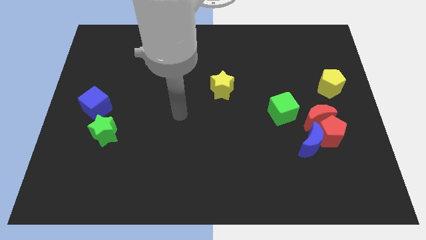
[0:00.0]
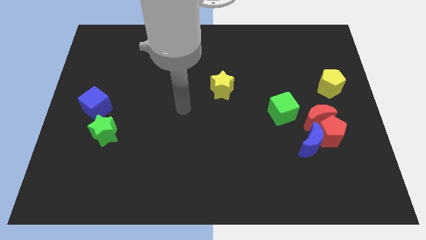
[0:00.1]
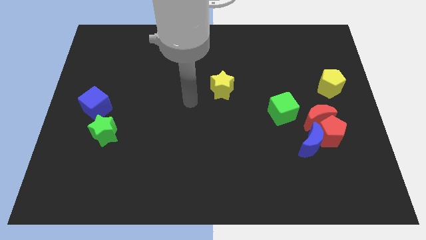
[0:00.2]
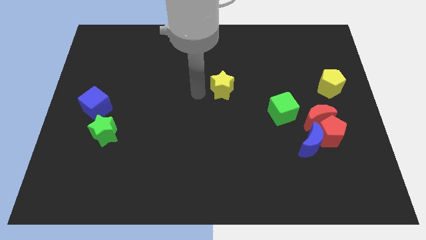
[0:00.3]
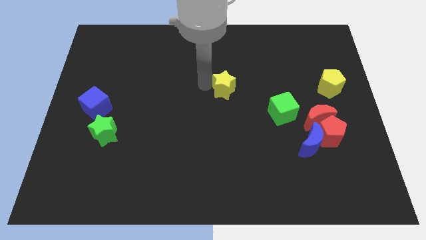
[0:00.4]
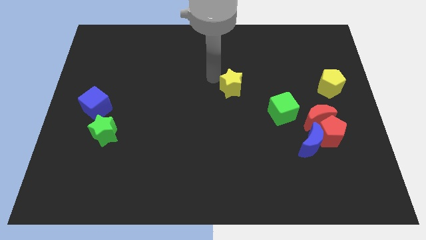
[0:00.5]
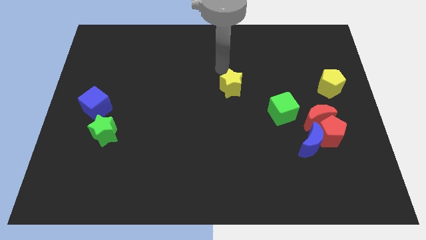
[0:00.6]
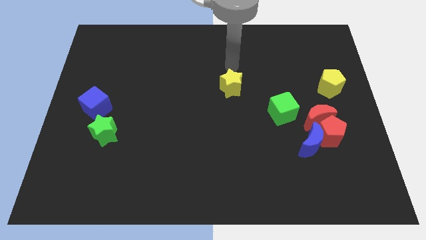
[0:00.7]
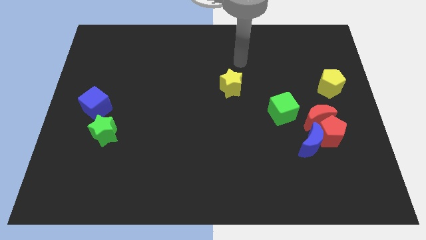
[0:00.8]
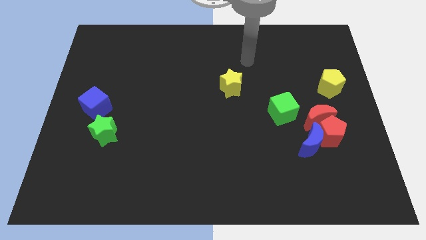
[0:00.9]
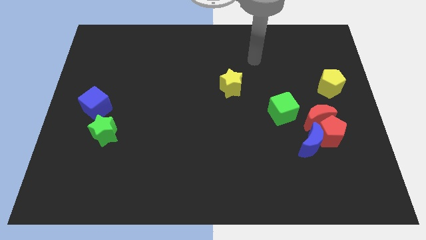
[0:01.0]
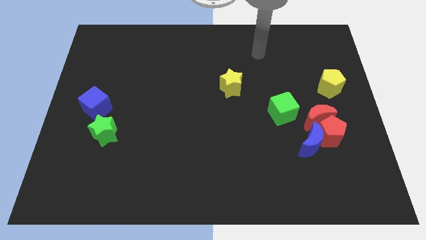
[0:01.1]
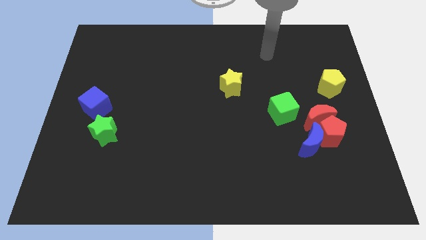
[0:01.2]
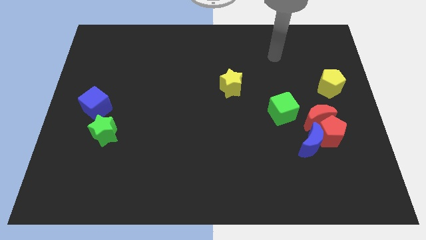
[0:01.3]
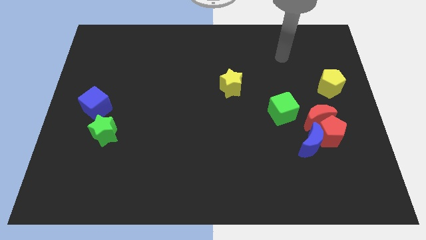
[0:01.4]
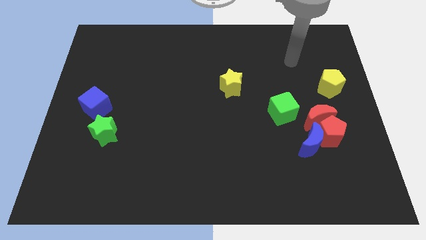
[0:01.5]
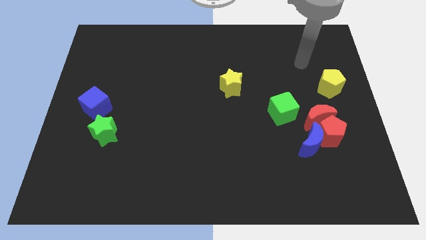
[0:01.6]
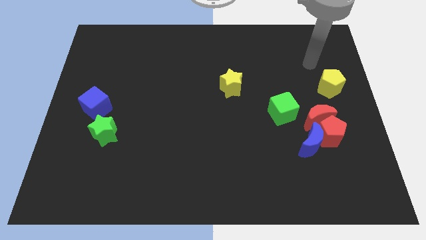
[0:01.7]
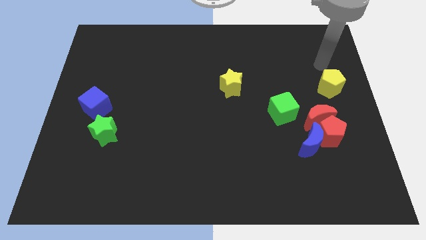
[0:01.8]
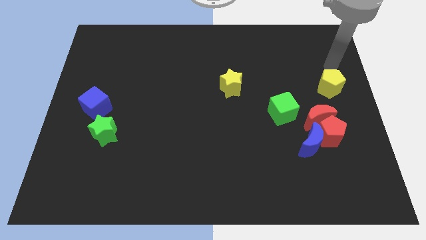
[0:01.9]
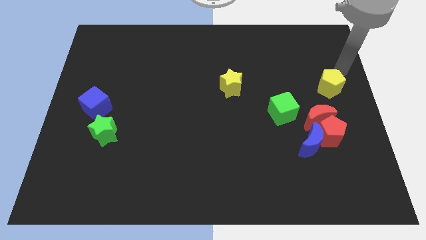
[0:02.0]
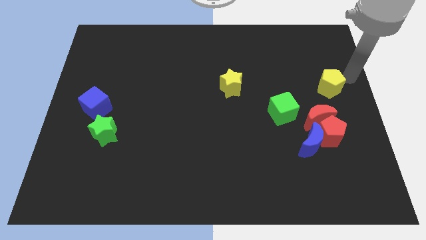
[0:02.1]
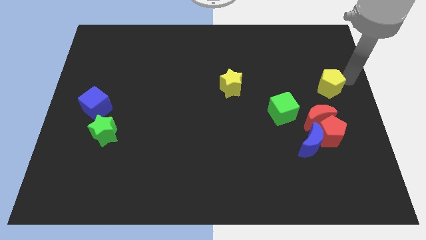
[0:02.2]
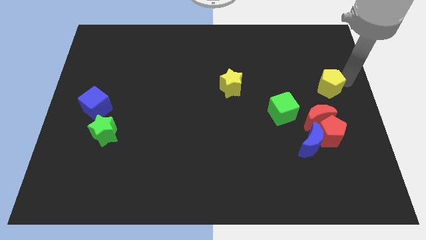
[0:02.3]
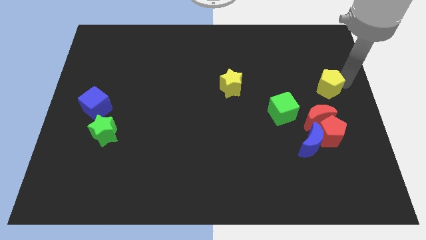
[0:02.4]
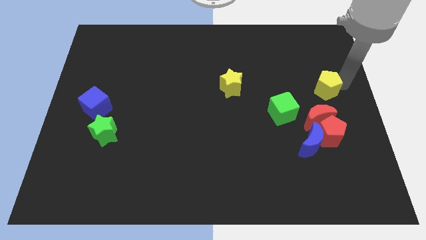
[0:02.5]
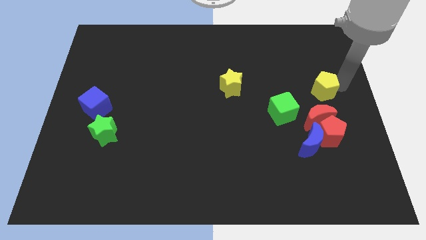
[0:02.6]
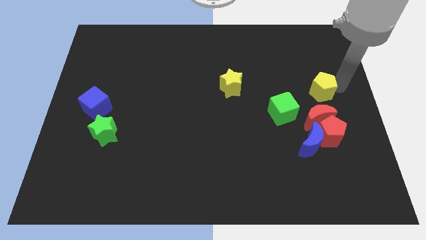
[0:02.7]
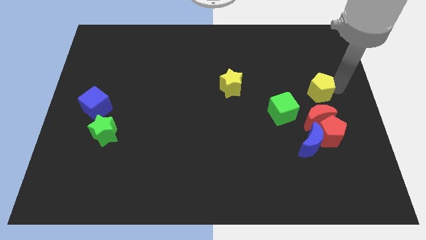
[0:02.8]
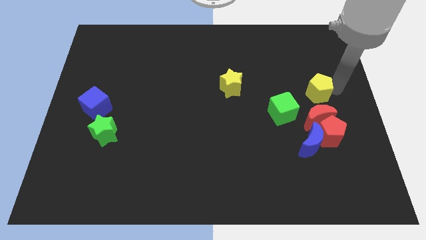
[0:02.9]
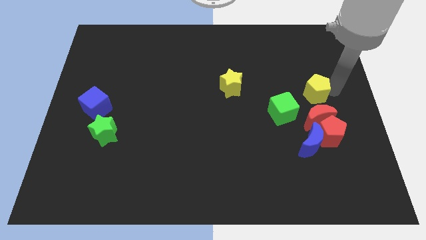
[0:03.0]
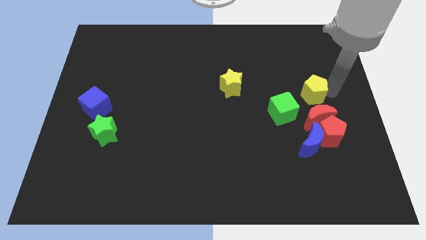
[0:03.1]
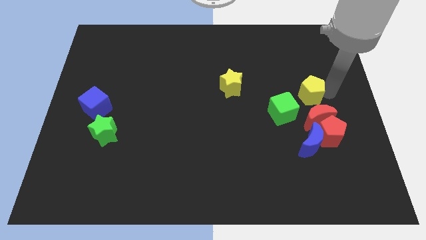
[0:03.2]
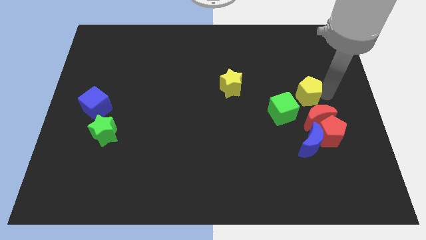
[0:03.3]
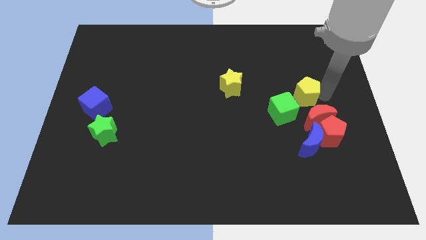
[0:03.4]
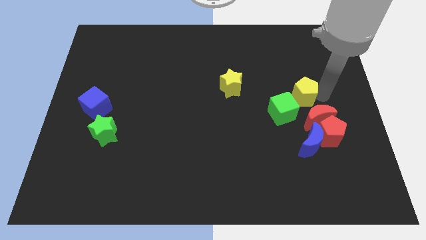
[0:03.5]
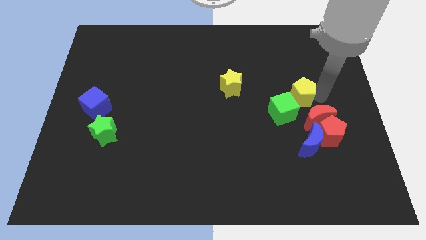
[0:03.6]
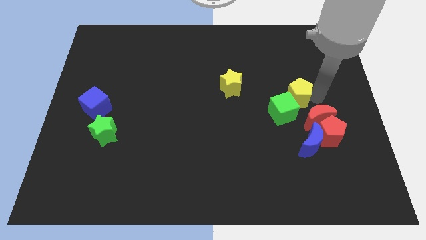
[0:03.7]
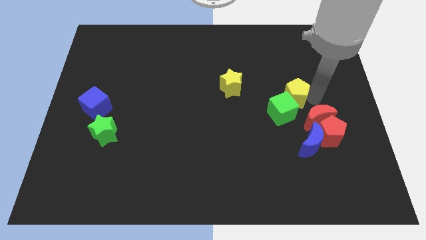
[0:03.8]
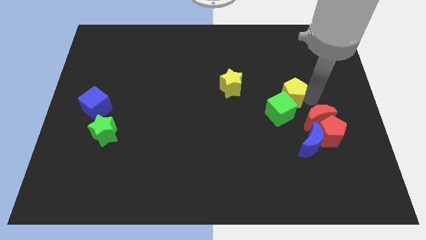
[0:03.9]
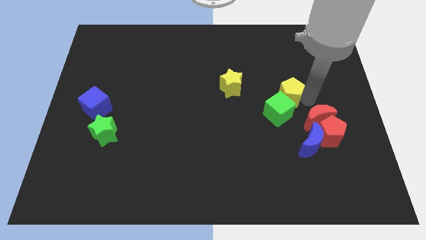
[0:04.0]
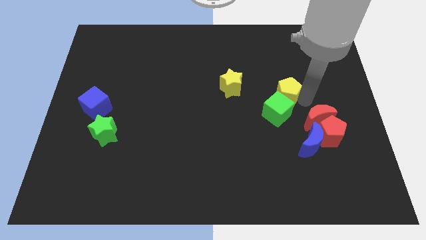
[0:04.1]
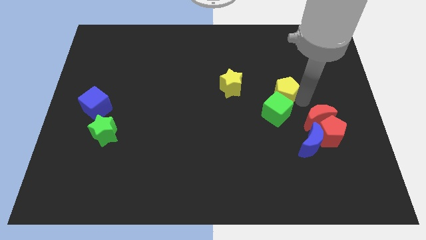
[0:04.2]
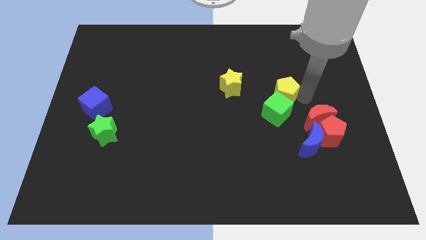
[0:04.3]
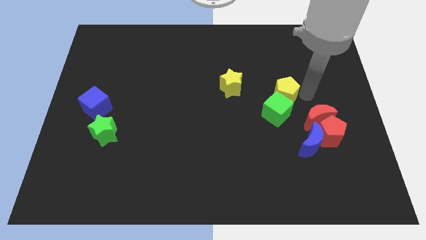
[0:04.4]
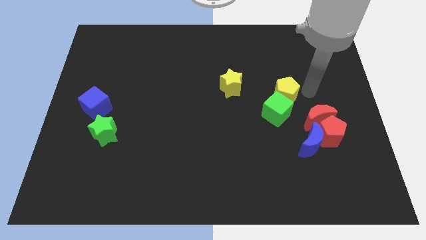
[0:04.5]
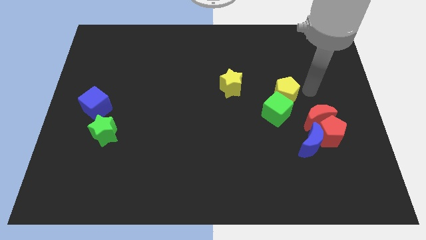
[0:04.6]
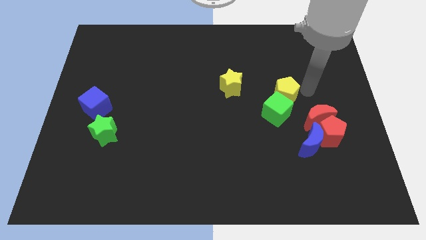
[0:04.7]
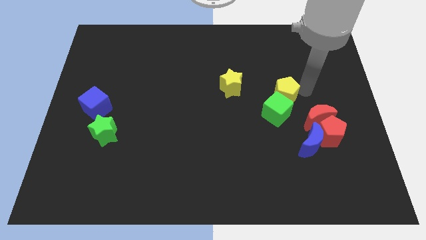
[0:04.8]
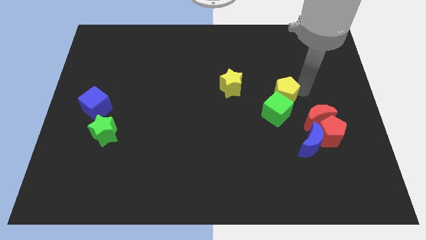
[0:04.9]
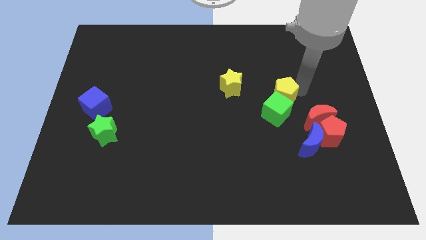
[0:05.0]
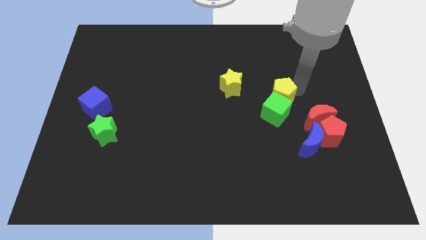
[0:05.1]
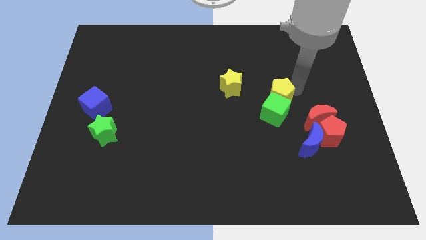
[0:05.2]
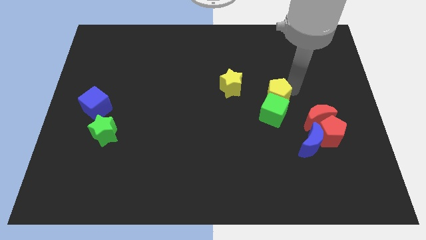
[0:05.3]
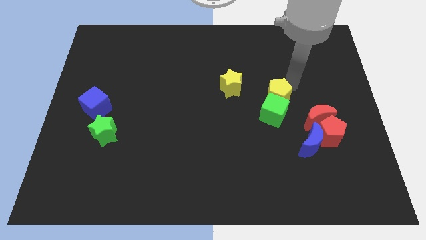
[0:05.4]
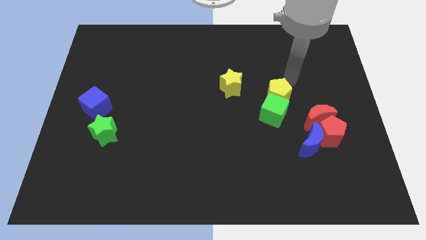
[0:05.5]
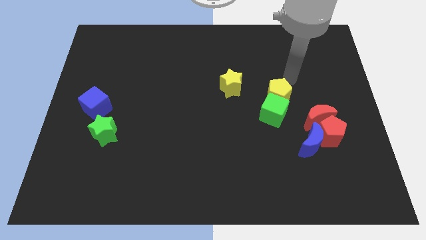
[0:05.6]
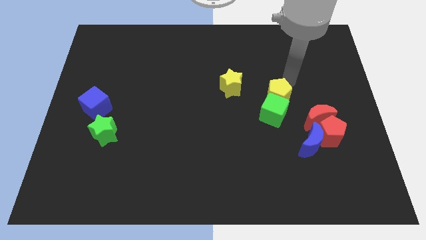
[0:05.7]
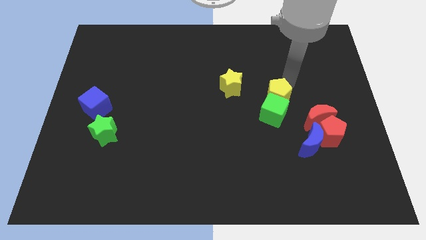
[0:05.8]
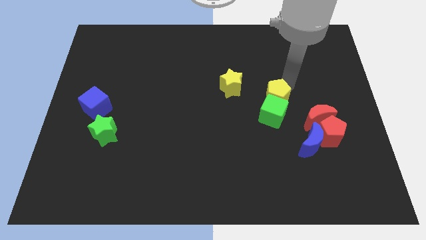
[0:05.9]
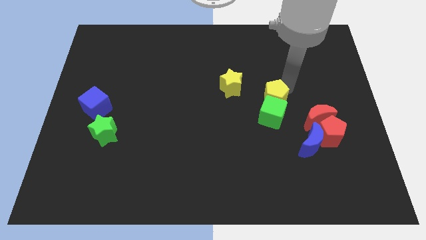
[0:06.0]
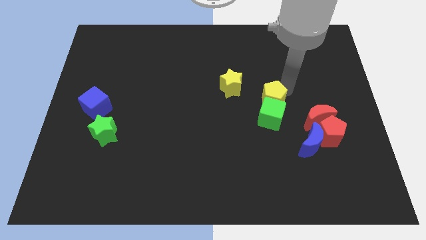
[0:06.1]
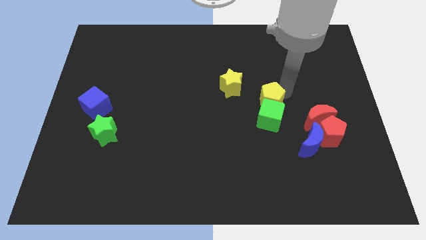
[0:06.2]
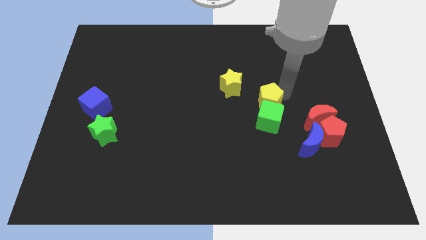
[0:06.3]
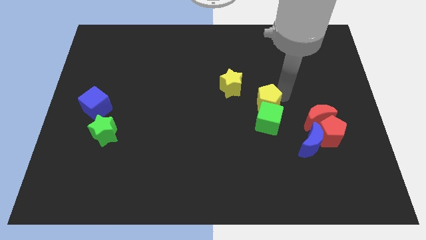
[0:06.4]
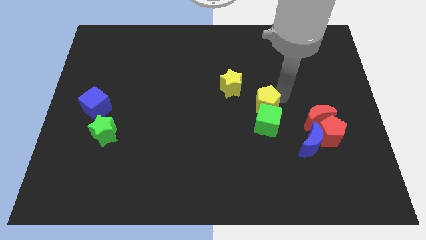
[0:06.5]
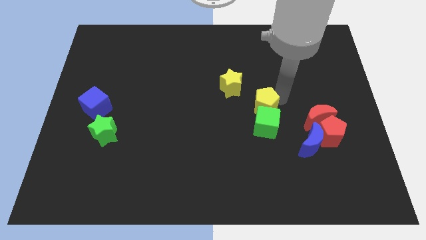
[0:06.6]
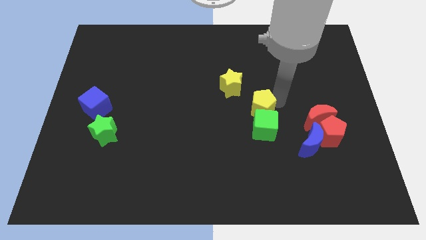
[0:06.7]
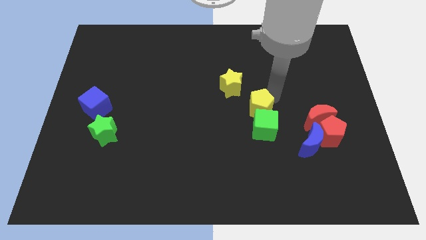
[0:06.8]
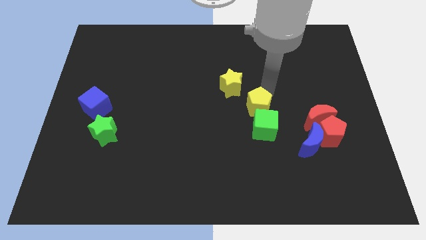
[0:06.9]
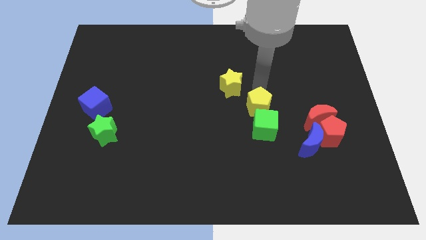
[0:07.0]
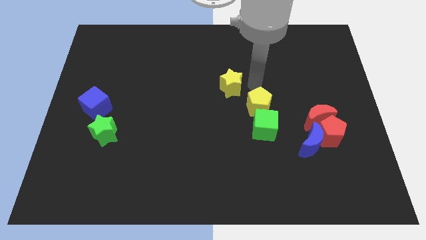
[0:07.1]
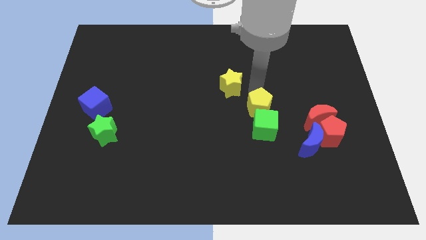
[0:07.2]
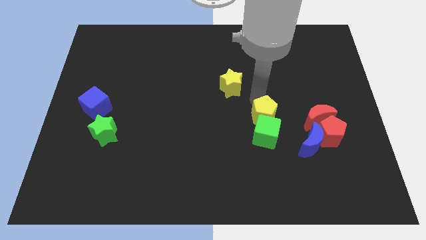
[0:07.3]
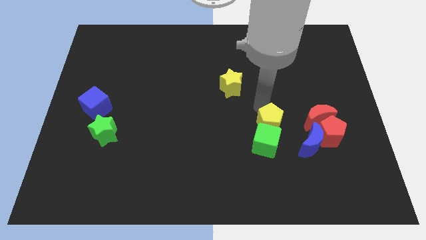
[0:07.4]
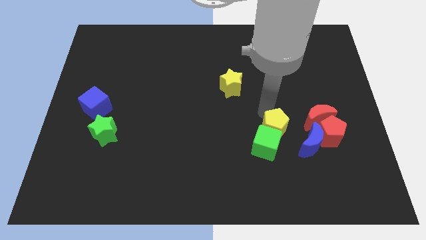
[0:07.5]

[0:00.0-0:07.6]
push the yellow pentagon to the left of the blue moon
